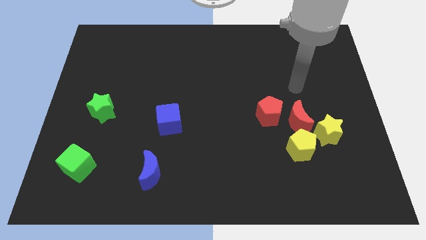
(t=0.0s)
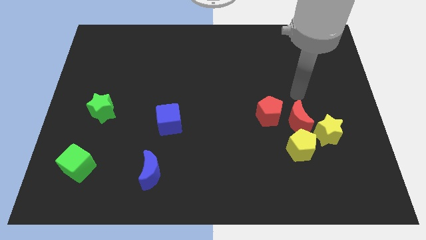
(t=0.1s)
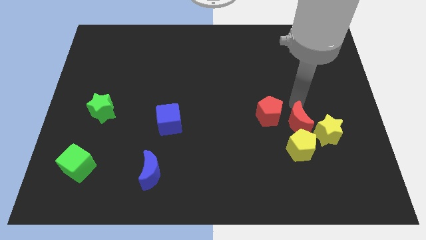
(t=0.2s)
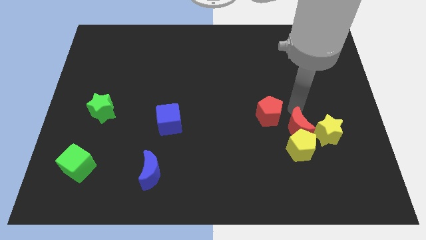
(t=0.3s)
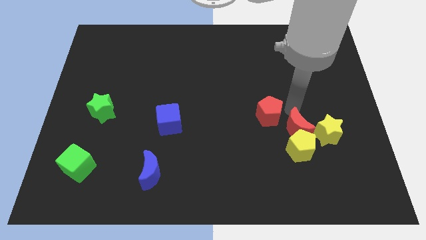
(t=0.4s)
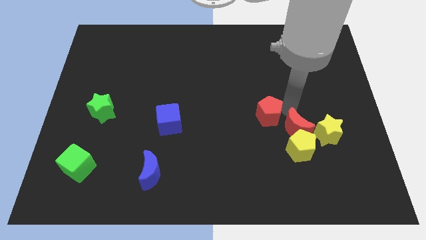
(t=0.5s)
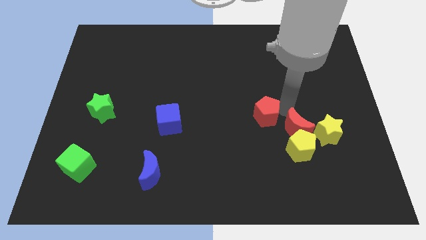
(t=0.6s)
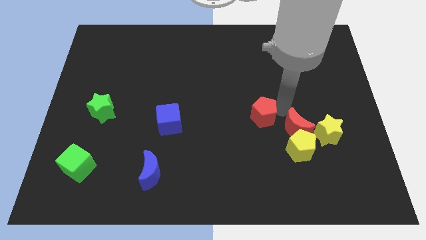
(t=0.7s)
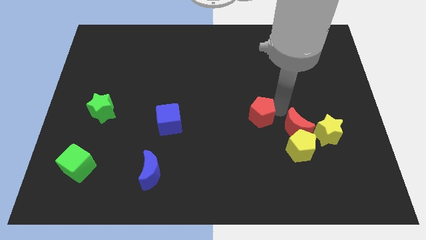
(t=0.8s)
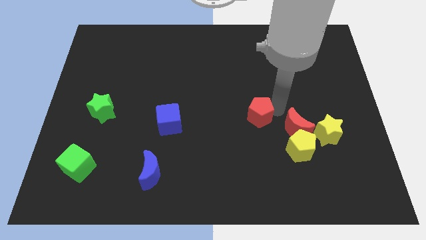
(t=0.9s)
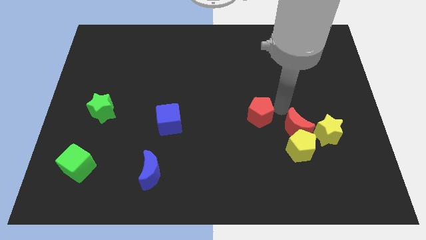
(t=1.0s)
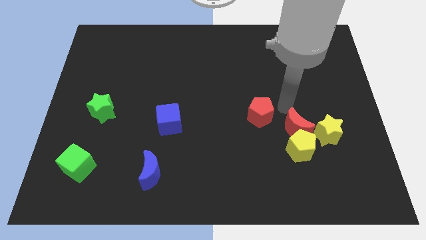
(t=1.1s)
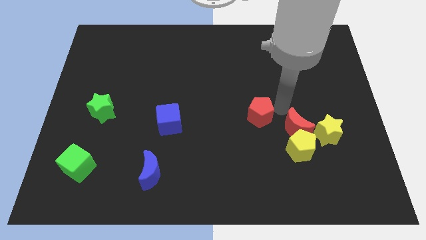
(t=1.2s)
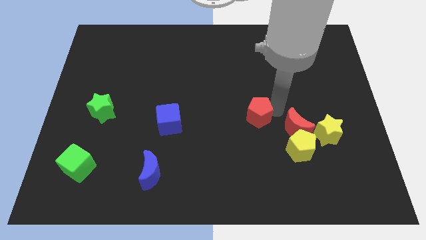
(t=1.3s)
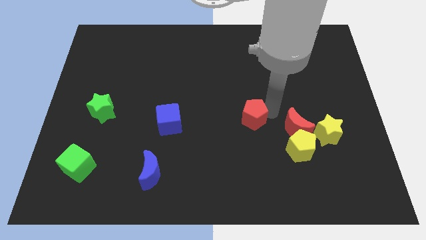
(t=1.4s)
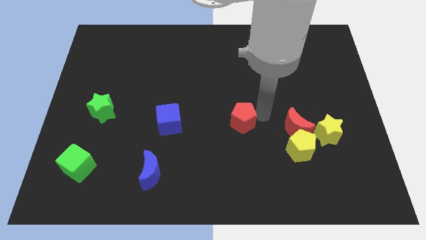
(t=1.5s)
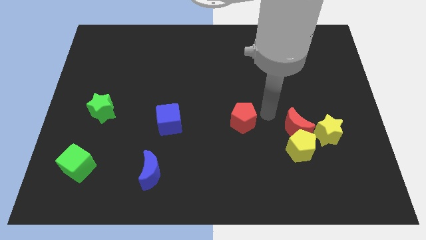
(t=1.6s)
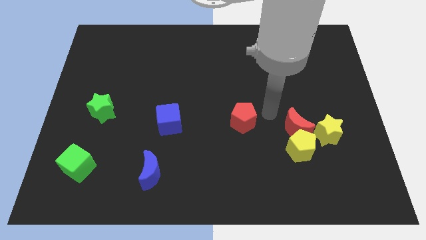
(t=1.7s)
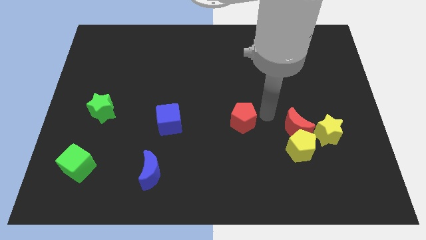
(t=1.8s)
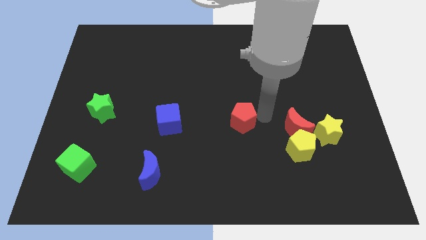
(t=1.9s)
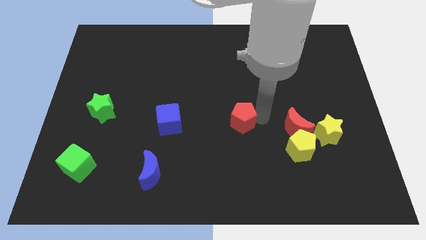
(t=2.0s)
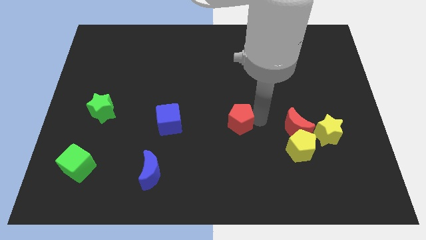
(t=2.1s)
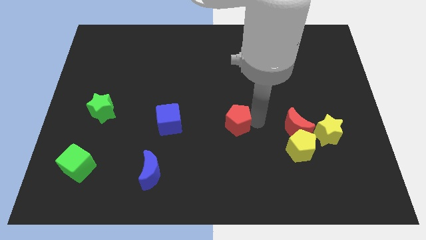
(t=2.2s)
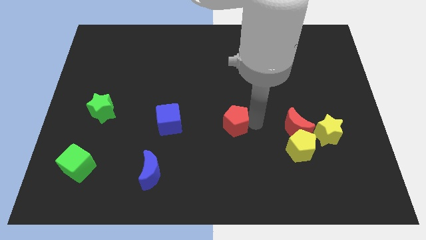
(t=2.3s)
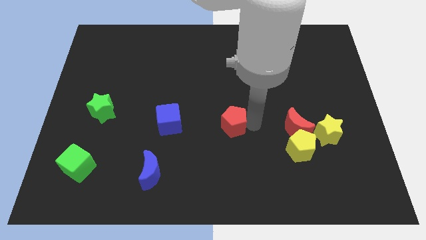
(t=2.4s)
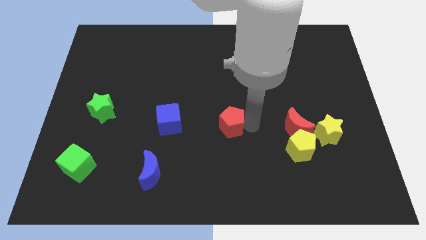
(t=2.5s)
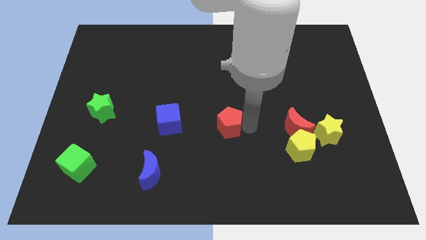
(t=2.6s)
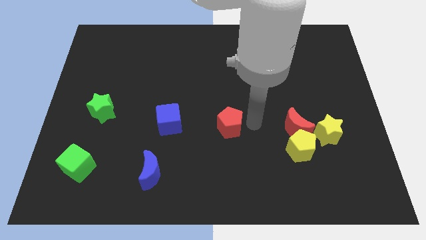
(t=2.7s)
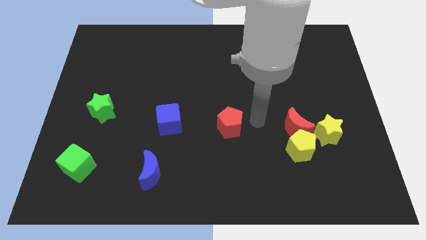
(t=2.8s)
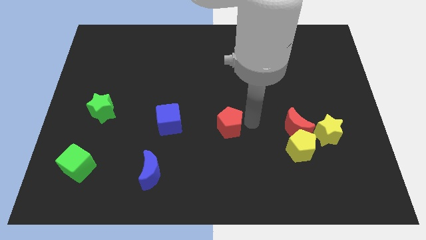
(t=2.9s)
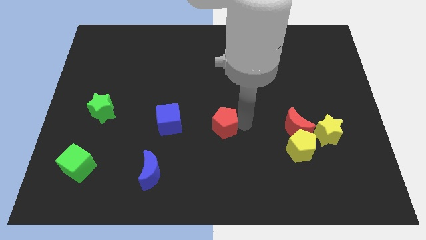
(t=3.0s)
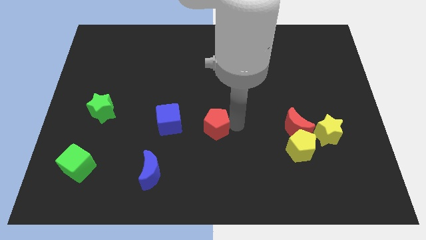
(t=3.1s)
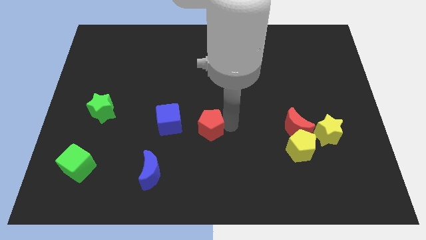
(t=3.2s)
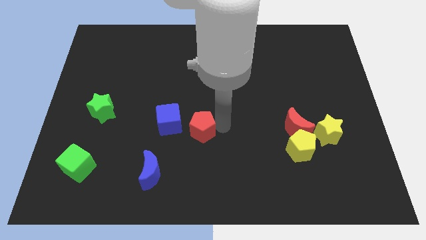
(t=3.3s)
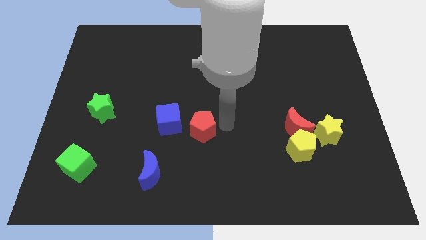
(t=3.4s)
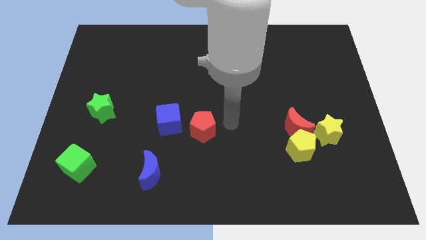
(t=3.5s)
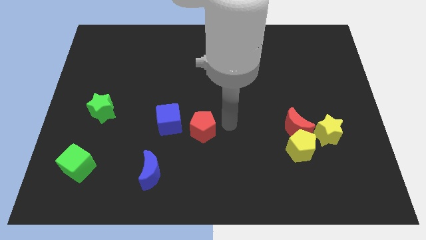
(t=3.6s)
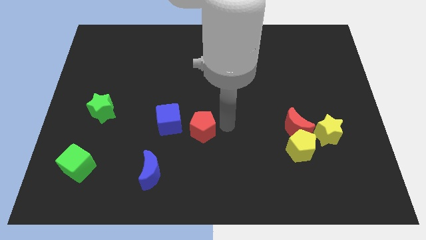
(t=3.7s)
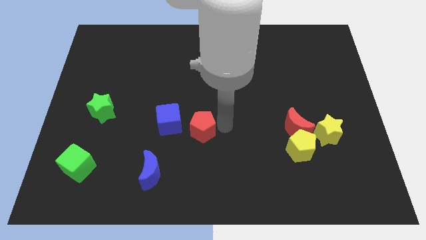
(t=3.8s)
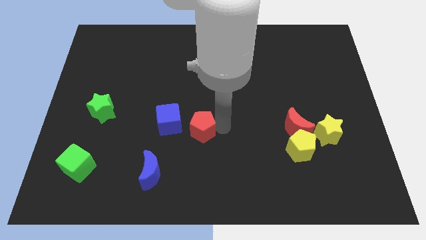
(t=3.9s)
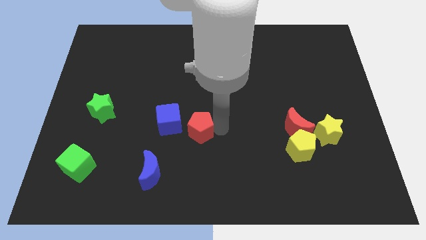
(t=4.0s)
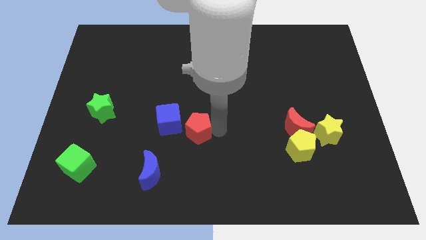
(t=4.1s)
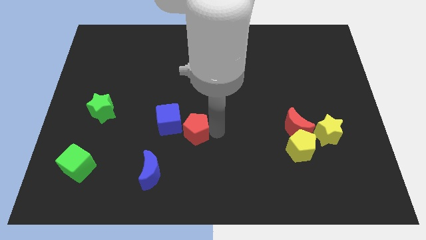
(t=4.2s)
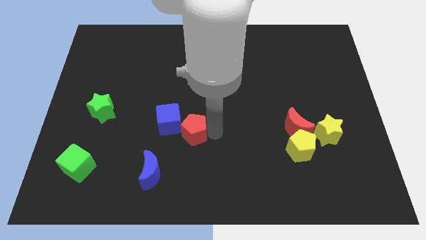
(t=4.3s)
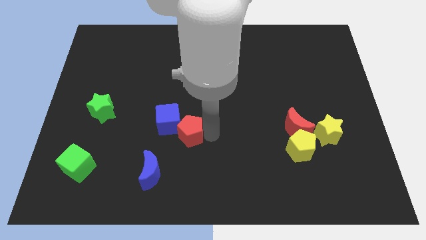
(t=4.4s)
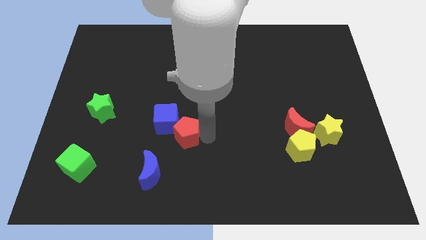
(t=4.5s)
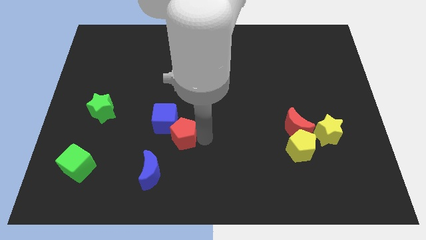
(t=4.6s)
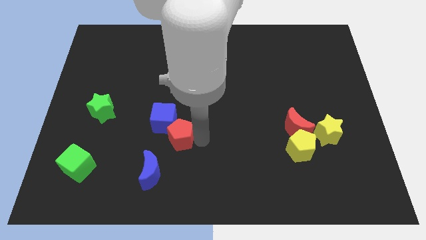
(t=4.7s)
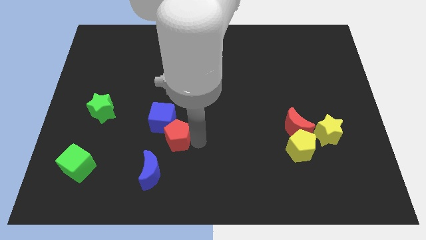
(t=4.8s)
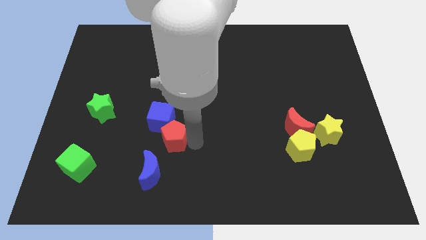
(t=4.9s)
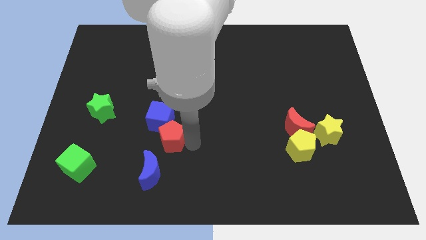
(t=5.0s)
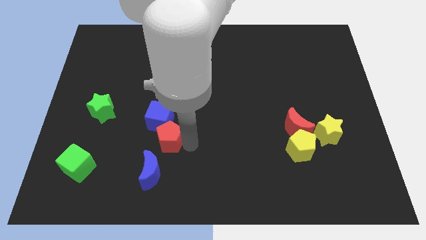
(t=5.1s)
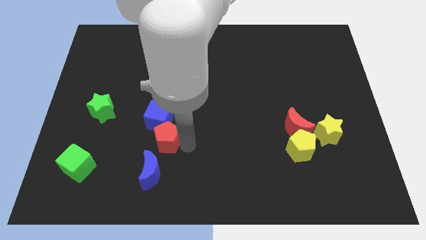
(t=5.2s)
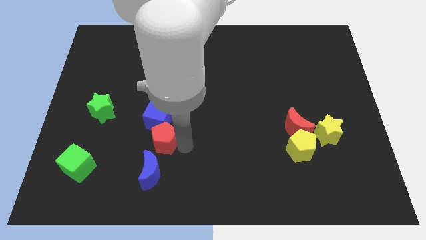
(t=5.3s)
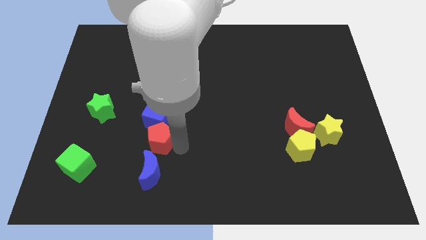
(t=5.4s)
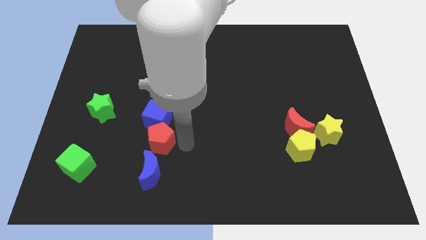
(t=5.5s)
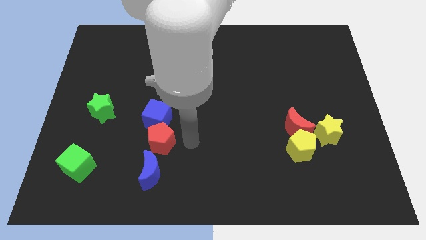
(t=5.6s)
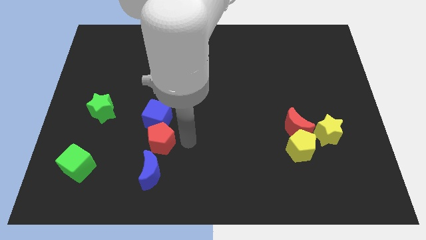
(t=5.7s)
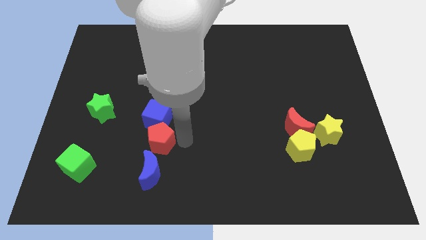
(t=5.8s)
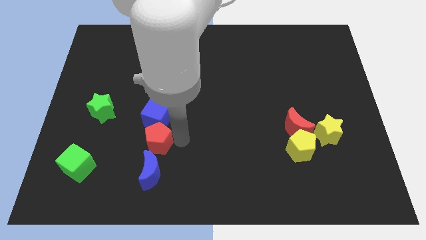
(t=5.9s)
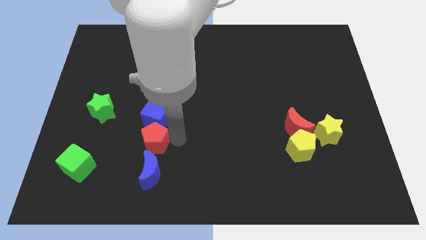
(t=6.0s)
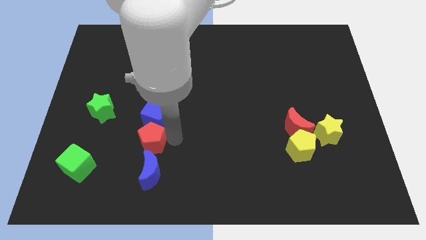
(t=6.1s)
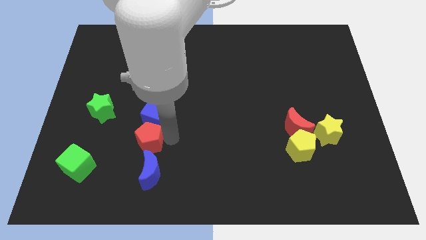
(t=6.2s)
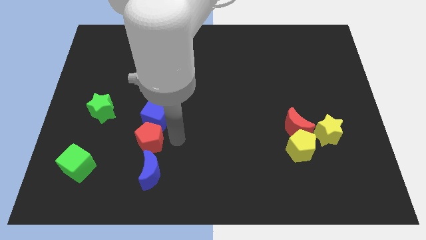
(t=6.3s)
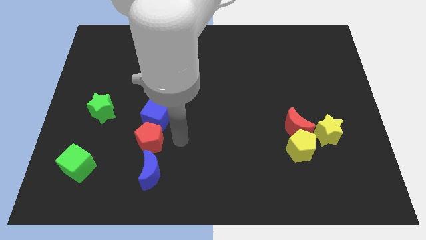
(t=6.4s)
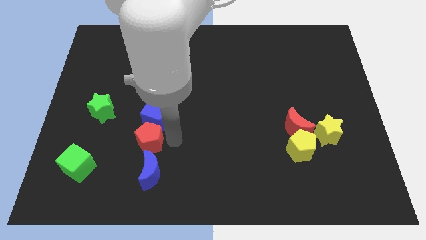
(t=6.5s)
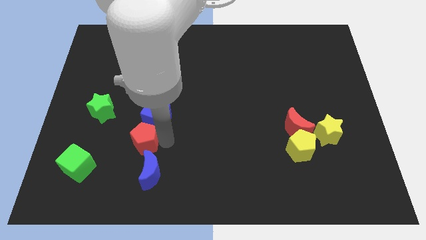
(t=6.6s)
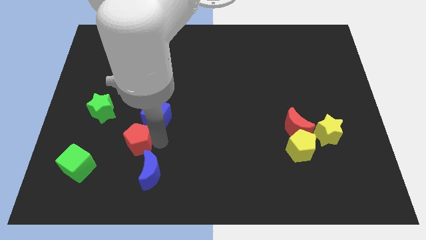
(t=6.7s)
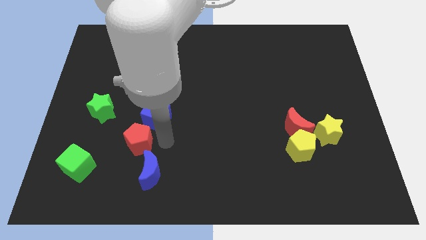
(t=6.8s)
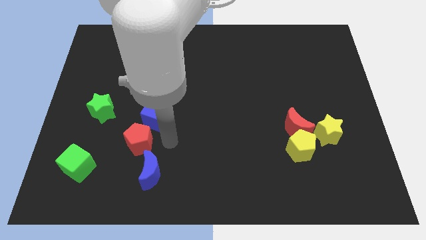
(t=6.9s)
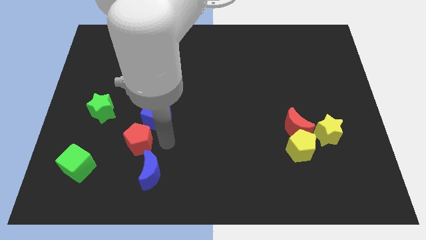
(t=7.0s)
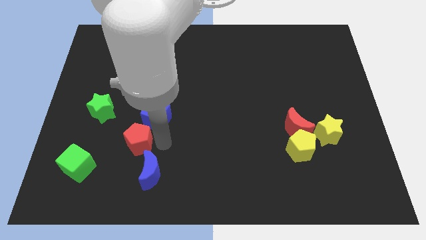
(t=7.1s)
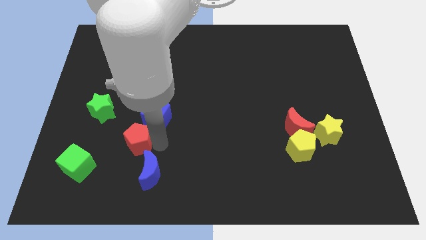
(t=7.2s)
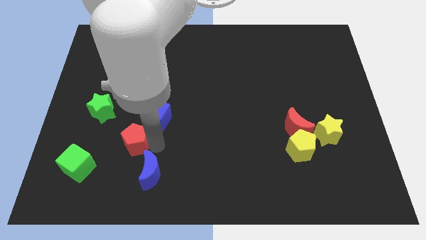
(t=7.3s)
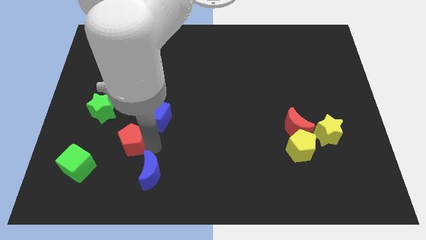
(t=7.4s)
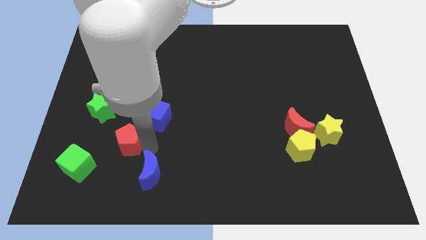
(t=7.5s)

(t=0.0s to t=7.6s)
put the red pentagon to the top right of the green cube

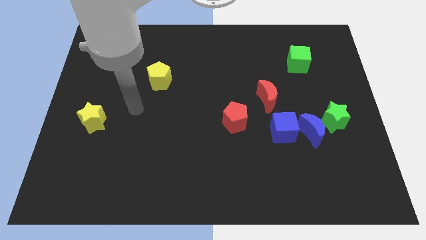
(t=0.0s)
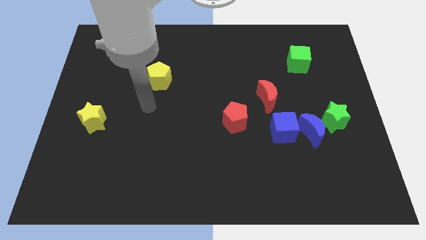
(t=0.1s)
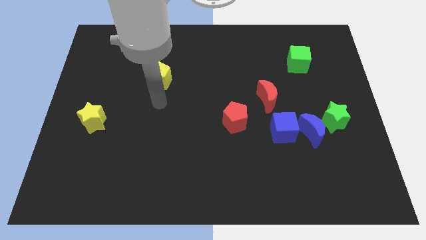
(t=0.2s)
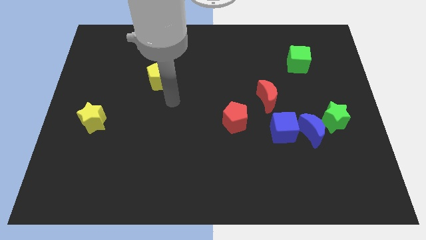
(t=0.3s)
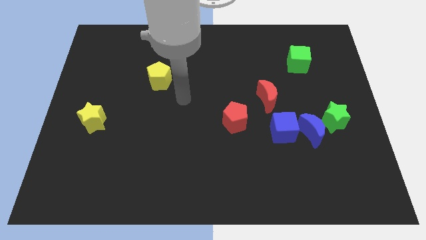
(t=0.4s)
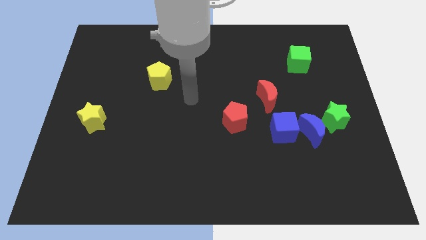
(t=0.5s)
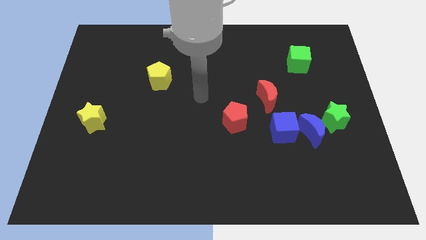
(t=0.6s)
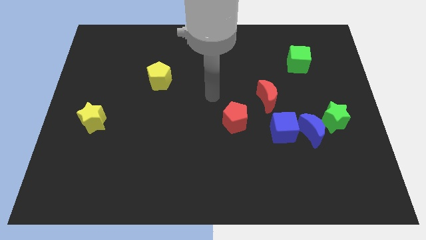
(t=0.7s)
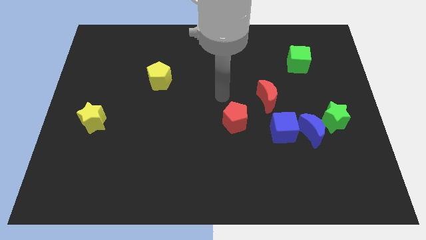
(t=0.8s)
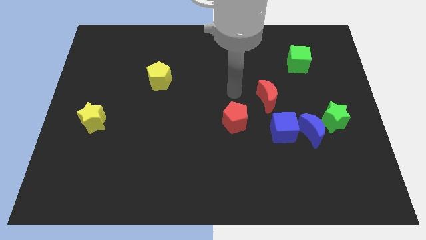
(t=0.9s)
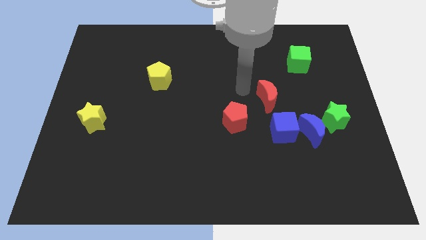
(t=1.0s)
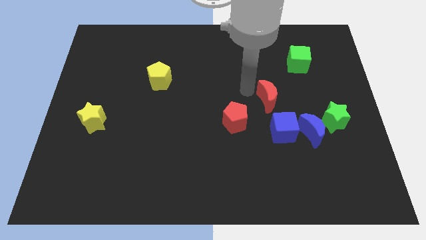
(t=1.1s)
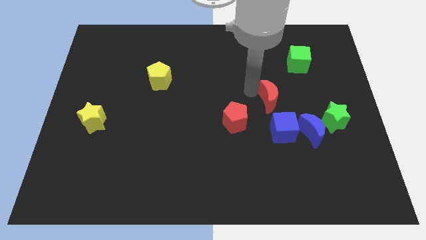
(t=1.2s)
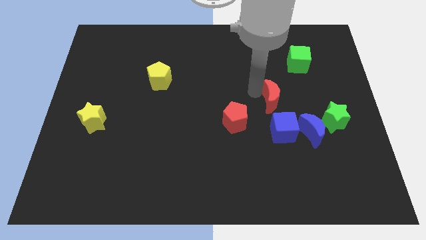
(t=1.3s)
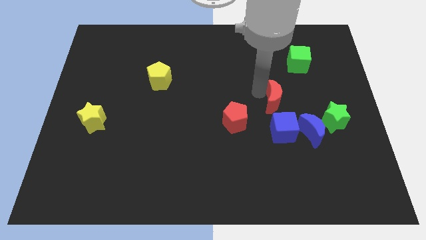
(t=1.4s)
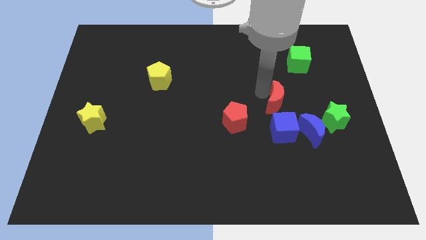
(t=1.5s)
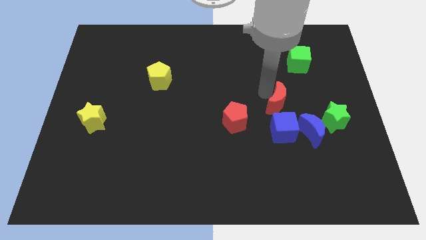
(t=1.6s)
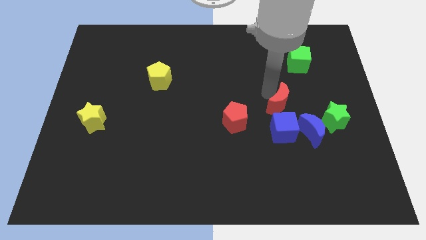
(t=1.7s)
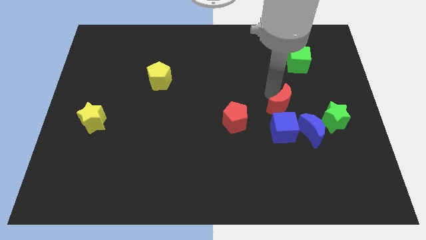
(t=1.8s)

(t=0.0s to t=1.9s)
move the red moon to the top right side of the blue cube
